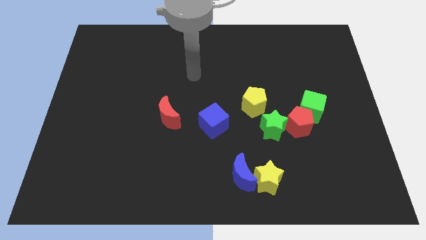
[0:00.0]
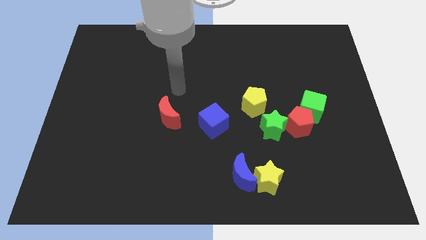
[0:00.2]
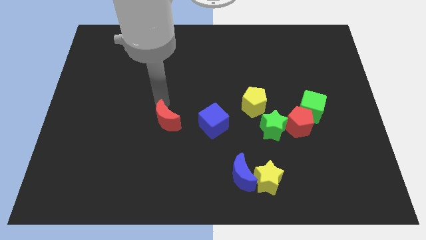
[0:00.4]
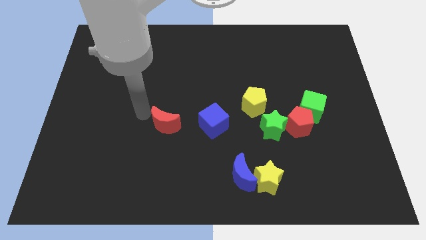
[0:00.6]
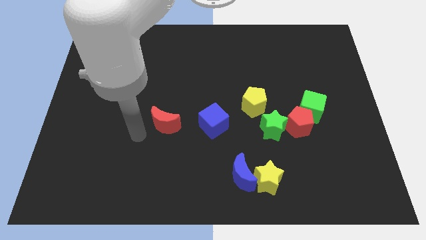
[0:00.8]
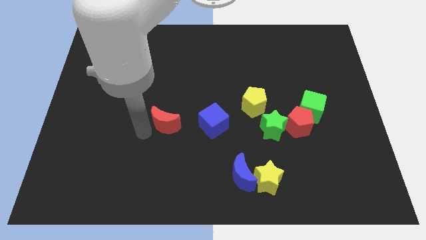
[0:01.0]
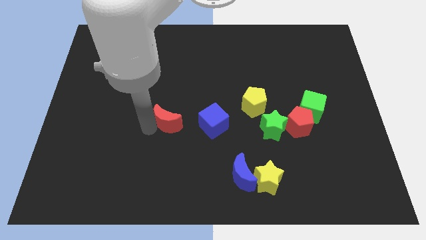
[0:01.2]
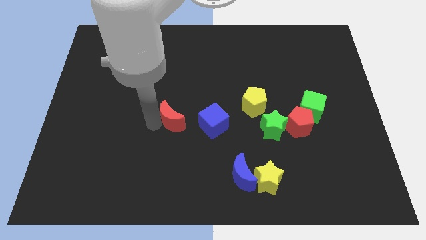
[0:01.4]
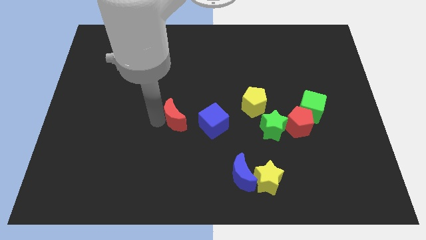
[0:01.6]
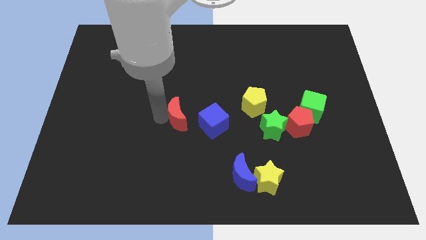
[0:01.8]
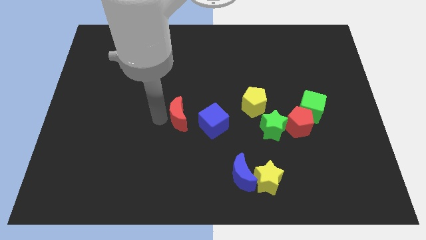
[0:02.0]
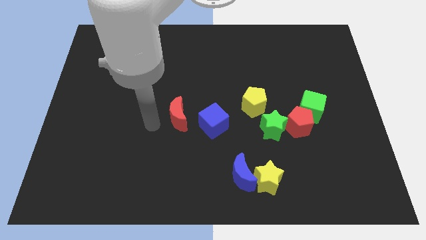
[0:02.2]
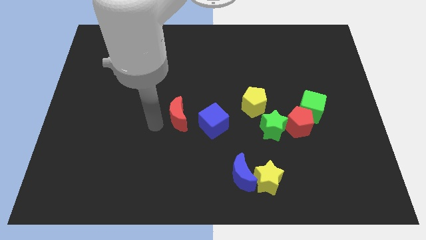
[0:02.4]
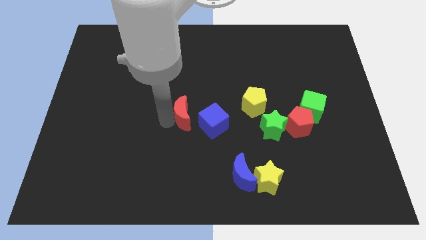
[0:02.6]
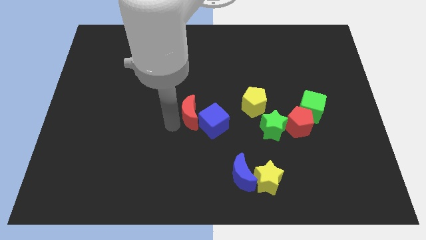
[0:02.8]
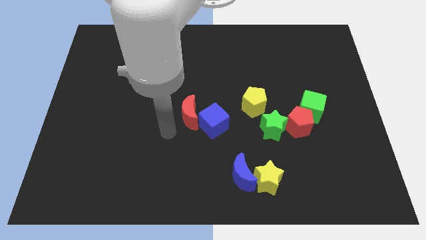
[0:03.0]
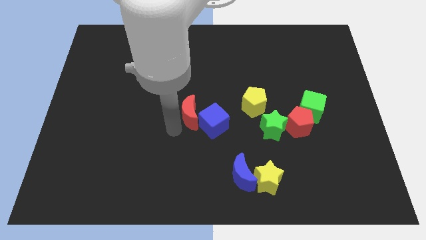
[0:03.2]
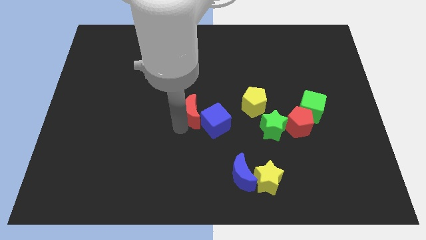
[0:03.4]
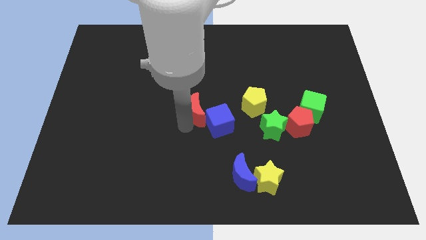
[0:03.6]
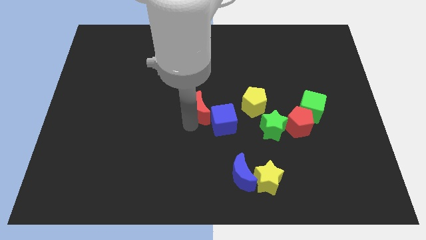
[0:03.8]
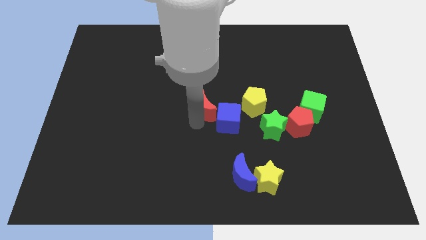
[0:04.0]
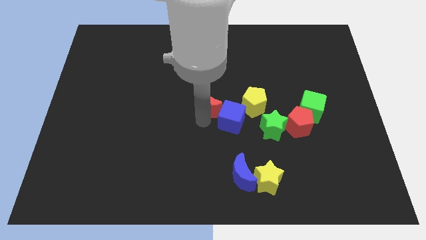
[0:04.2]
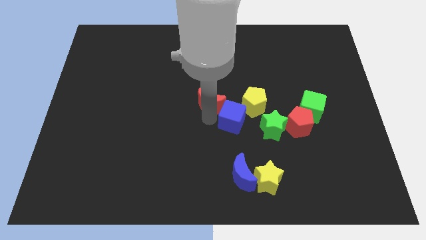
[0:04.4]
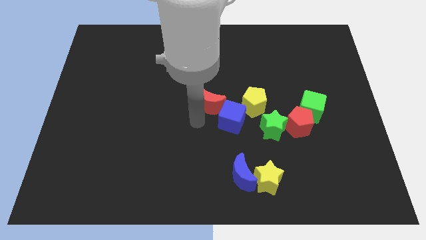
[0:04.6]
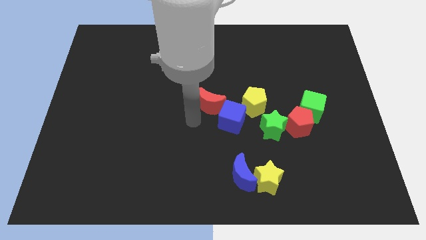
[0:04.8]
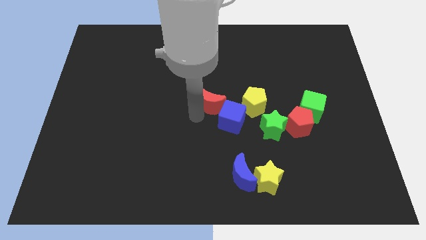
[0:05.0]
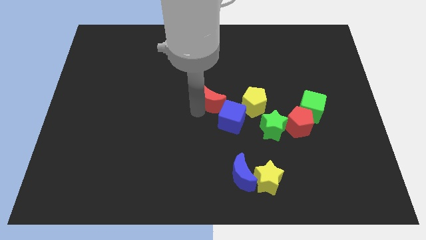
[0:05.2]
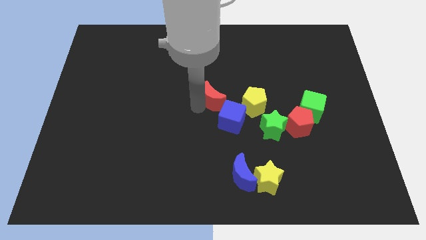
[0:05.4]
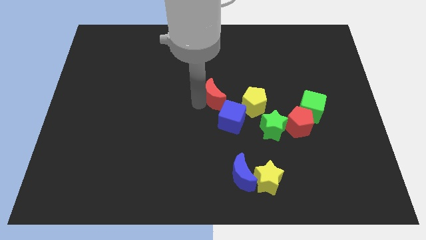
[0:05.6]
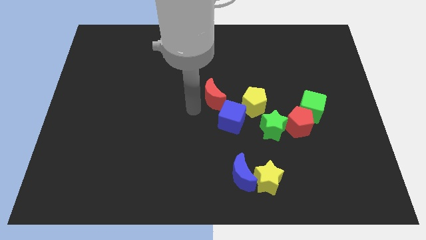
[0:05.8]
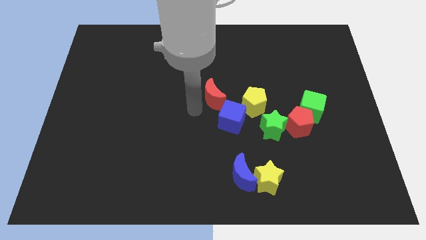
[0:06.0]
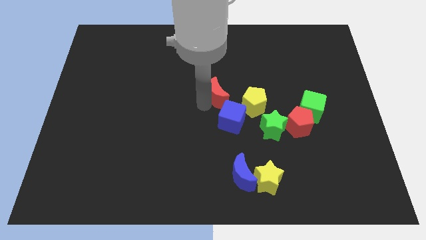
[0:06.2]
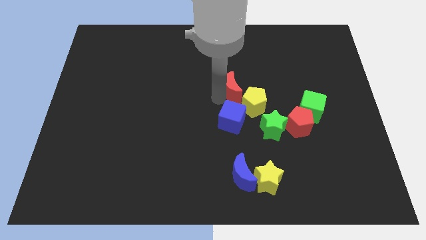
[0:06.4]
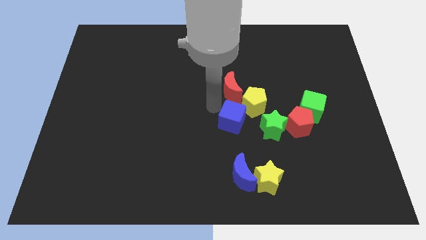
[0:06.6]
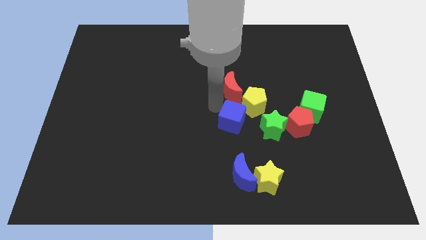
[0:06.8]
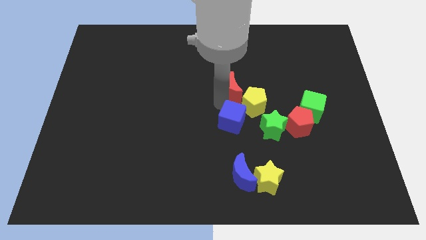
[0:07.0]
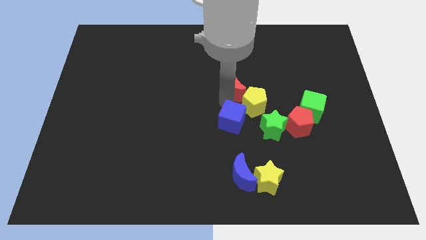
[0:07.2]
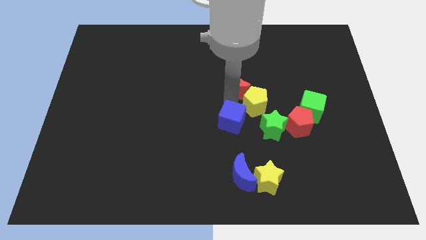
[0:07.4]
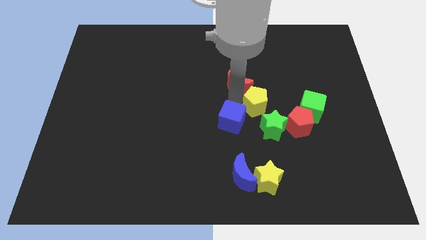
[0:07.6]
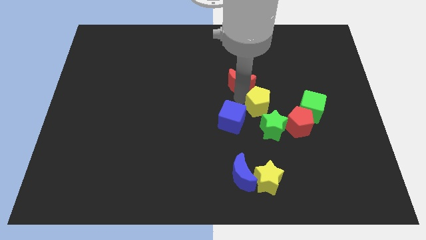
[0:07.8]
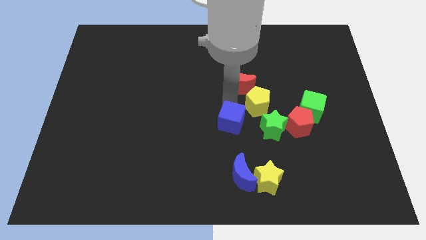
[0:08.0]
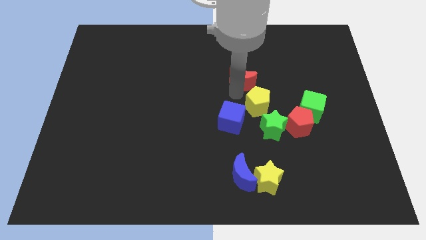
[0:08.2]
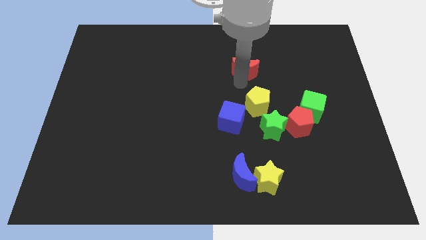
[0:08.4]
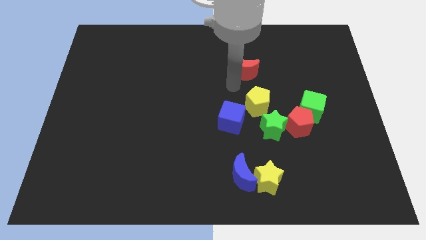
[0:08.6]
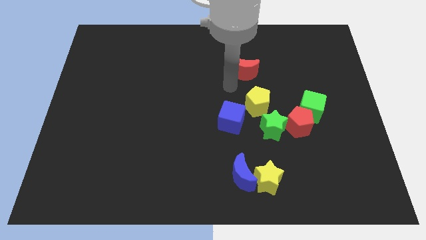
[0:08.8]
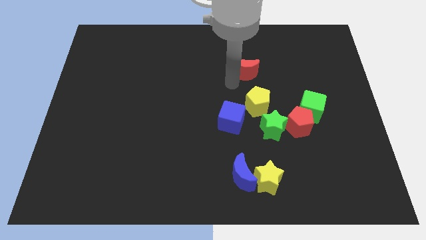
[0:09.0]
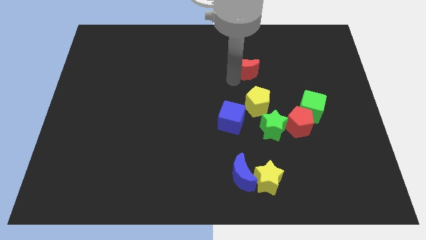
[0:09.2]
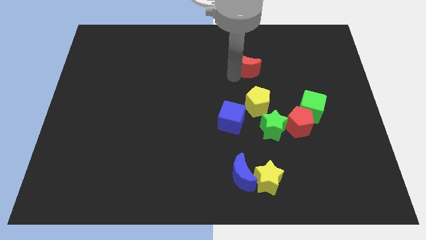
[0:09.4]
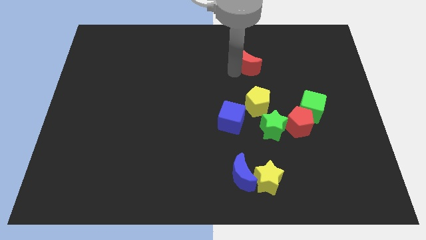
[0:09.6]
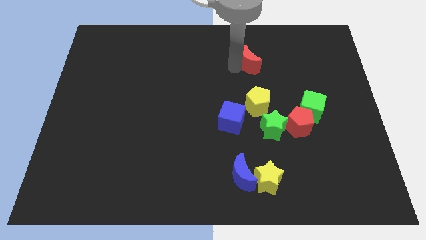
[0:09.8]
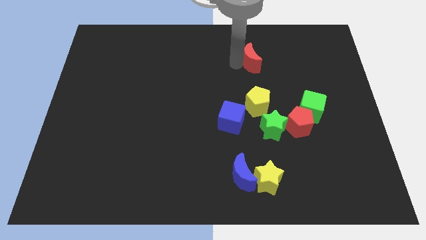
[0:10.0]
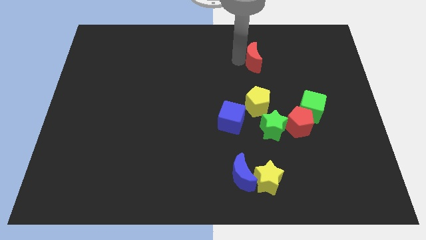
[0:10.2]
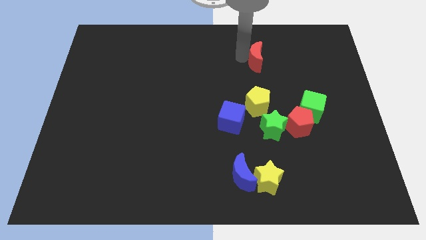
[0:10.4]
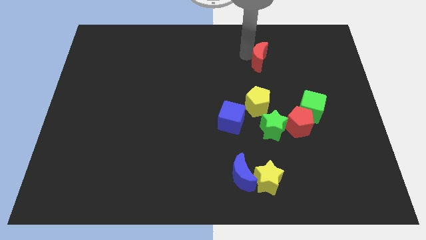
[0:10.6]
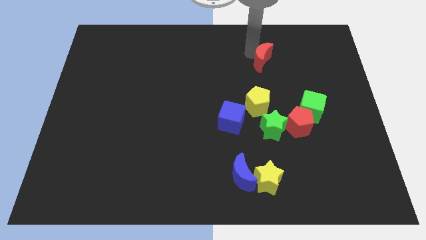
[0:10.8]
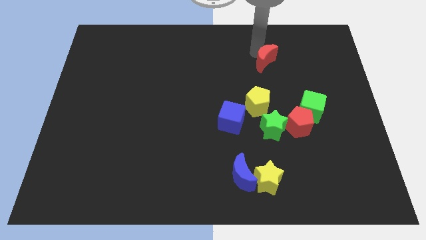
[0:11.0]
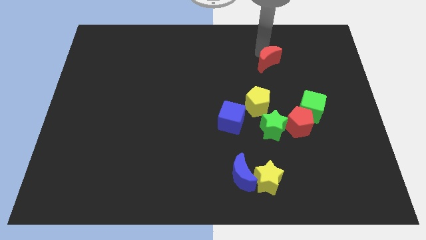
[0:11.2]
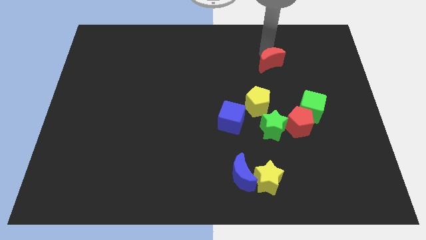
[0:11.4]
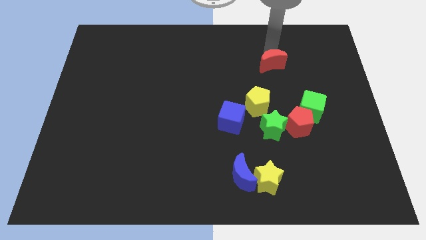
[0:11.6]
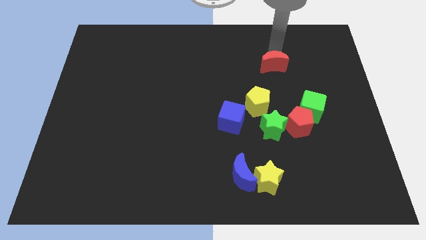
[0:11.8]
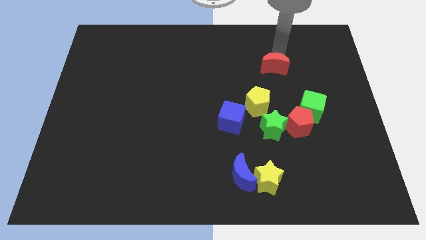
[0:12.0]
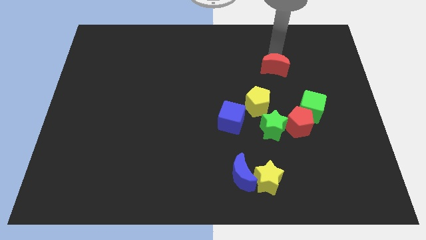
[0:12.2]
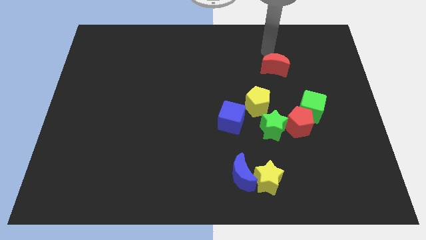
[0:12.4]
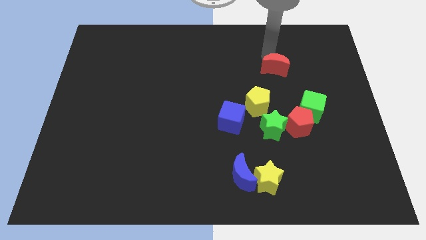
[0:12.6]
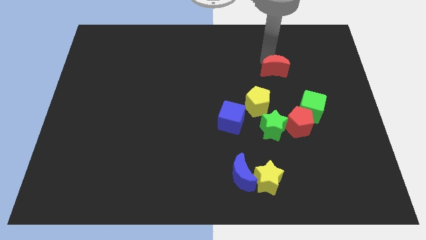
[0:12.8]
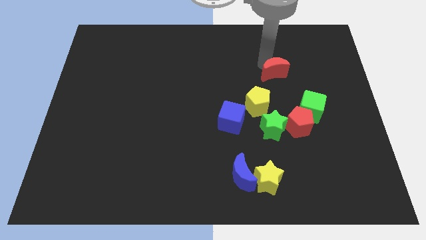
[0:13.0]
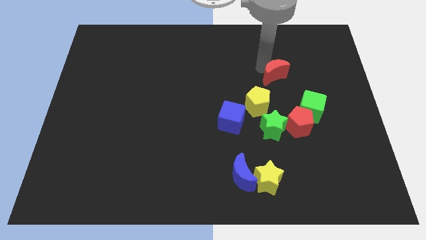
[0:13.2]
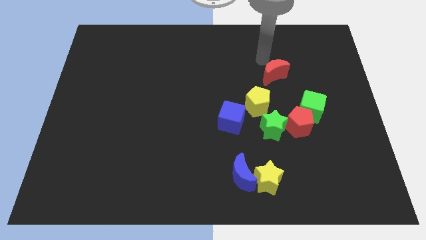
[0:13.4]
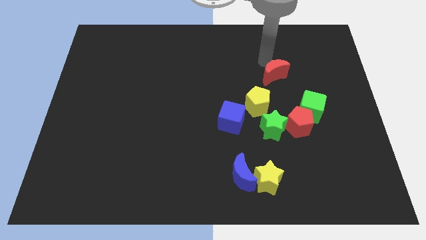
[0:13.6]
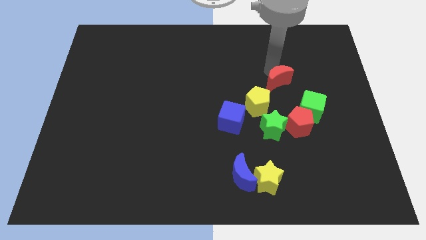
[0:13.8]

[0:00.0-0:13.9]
slide the red moon to the top left side of the green cube

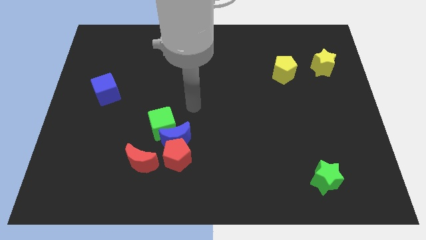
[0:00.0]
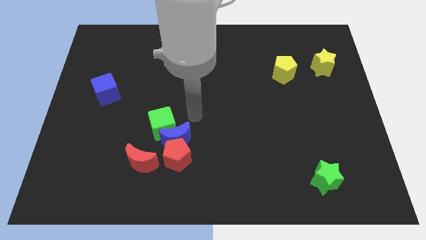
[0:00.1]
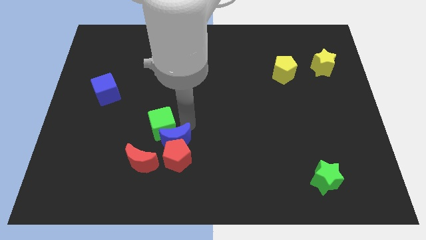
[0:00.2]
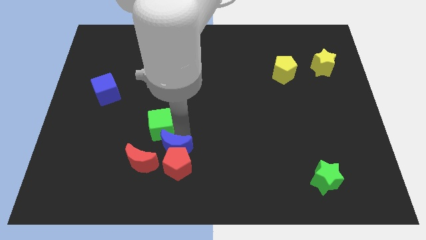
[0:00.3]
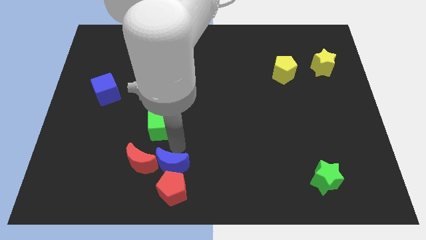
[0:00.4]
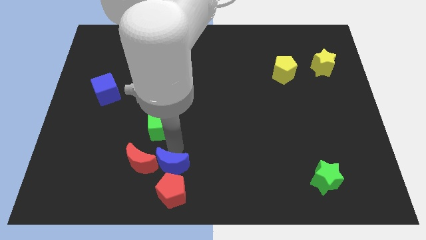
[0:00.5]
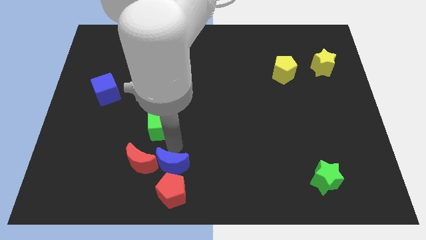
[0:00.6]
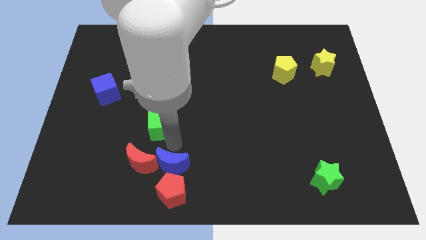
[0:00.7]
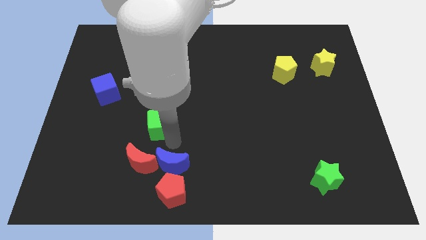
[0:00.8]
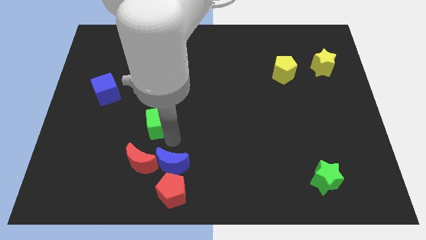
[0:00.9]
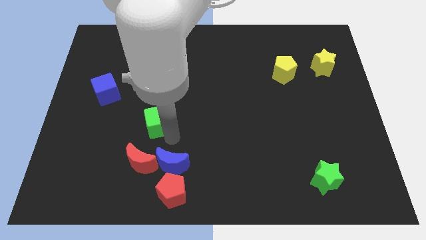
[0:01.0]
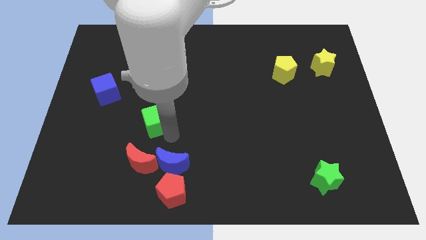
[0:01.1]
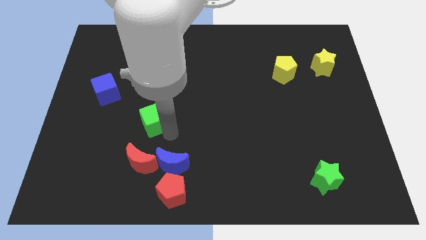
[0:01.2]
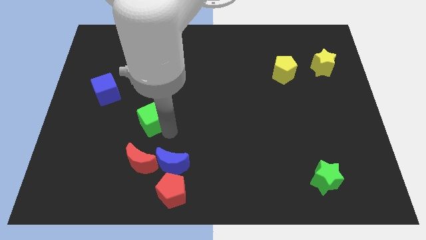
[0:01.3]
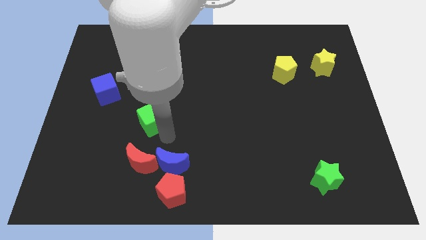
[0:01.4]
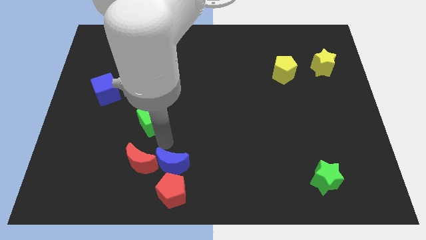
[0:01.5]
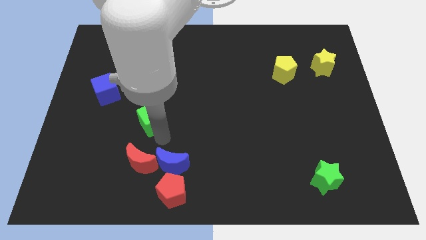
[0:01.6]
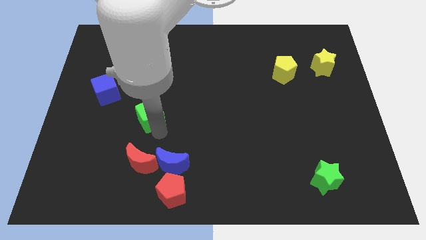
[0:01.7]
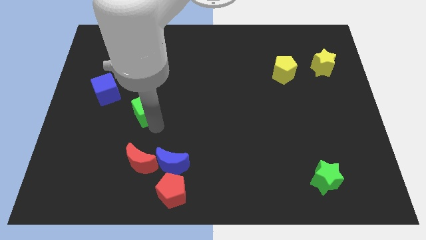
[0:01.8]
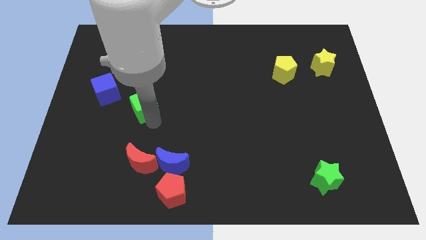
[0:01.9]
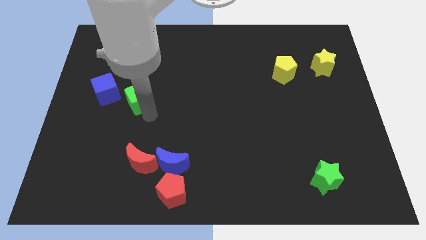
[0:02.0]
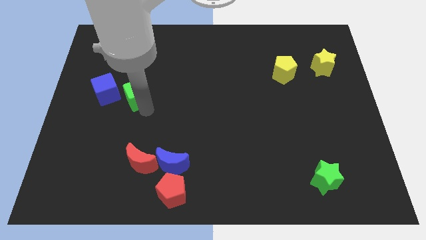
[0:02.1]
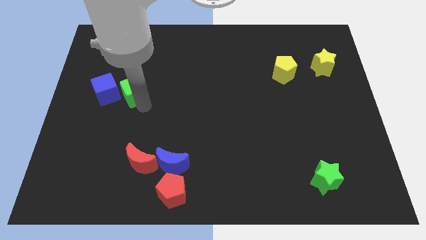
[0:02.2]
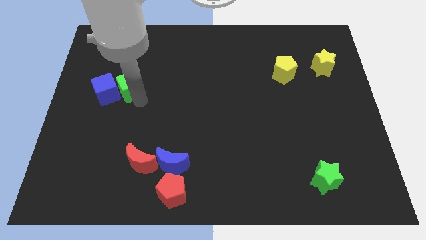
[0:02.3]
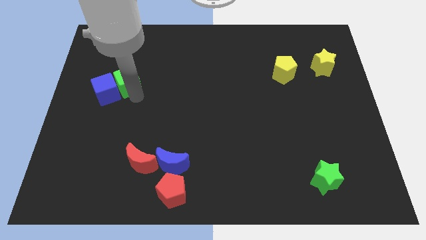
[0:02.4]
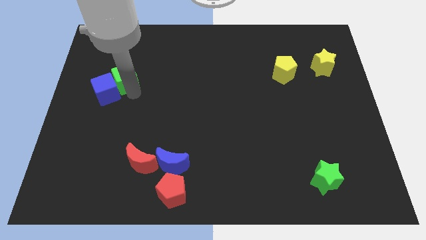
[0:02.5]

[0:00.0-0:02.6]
push the green cube to the top side of the blue cube
